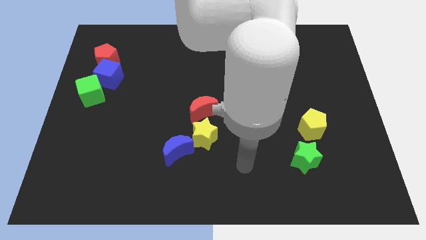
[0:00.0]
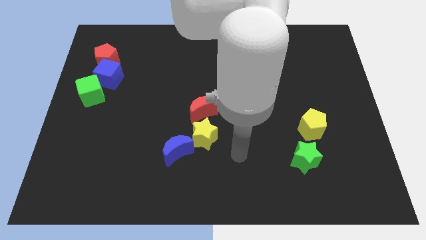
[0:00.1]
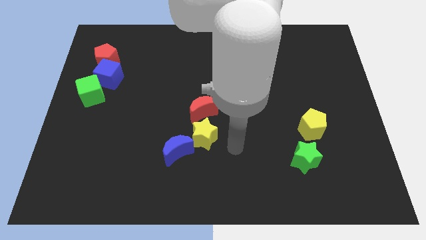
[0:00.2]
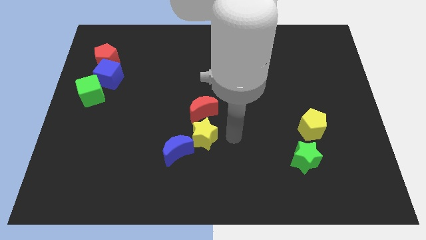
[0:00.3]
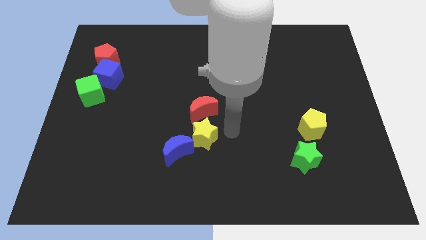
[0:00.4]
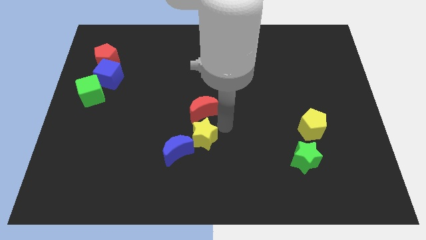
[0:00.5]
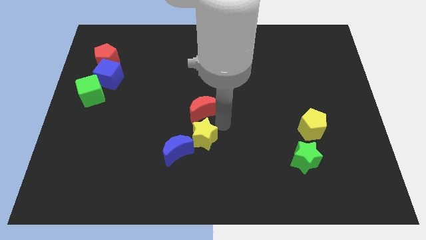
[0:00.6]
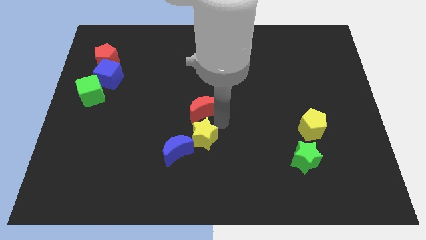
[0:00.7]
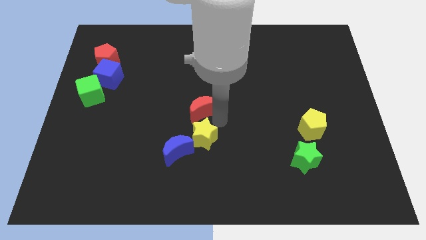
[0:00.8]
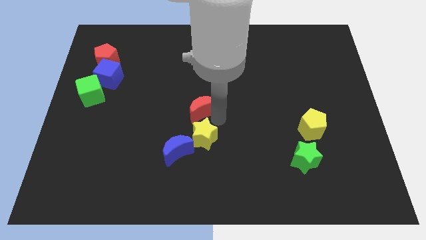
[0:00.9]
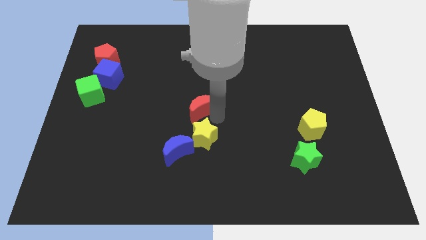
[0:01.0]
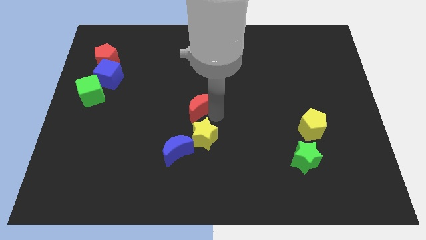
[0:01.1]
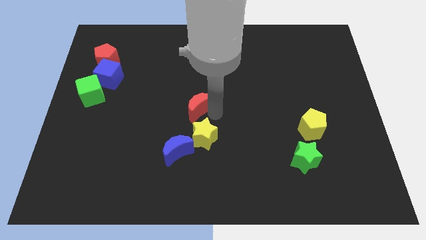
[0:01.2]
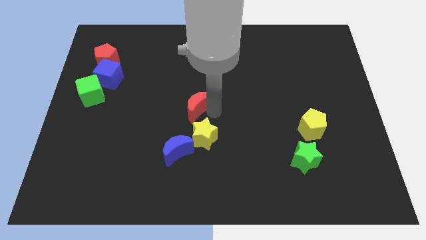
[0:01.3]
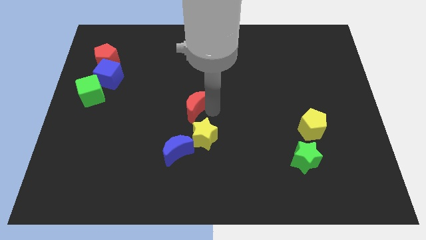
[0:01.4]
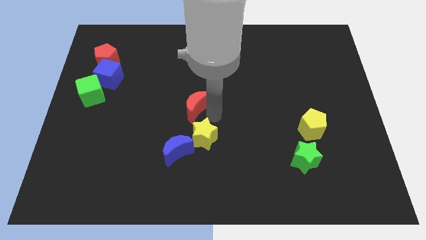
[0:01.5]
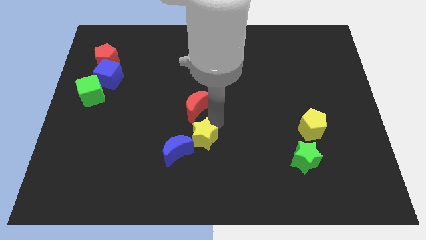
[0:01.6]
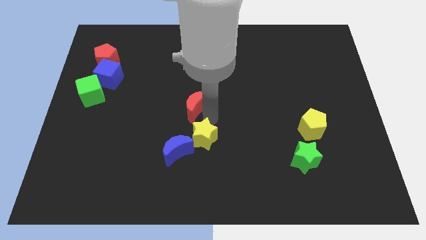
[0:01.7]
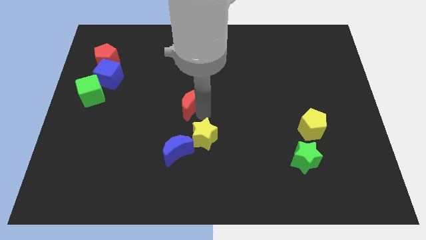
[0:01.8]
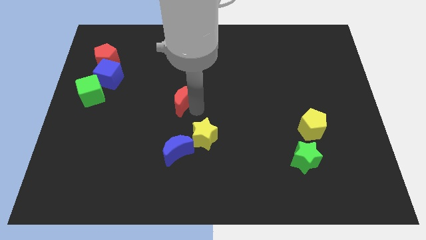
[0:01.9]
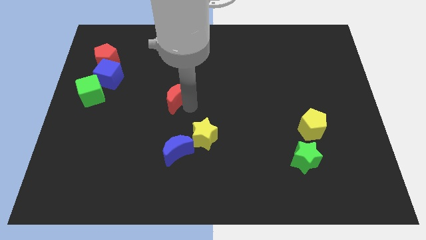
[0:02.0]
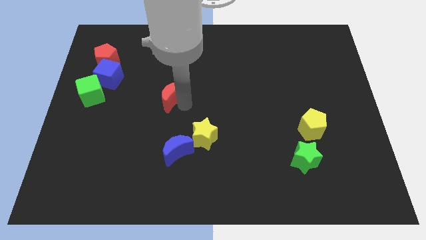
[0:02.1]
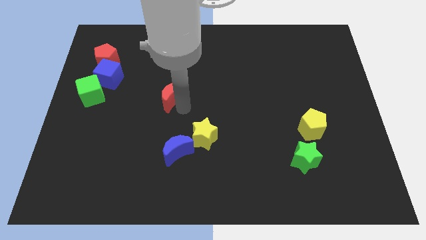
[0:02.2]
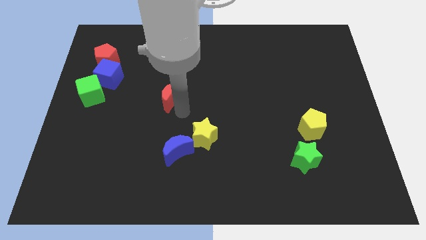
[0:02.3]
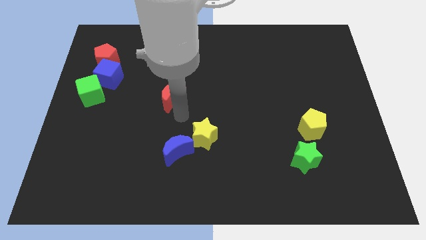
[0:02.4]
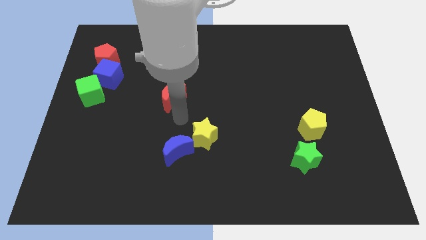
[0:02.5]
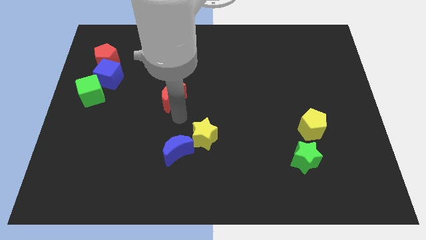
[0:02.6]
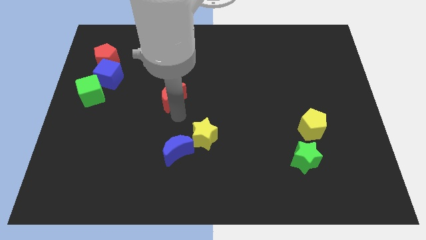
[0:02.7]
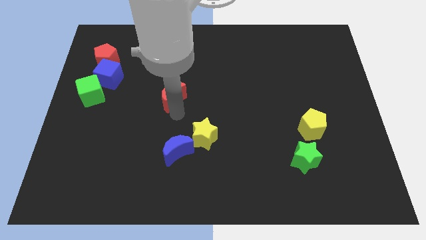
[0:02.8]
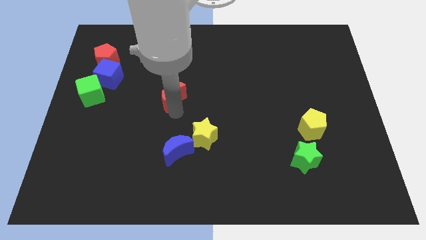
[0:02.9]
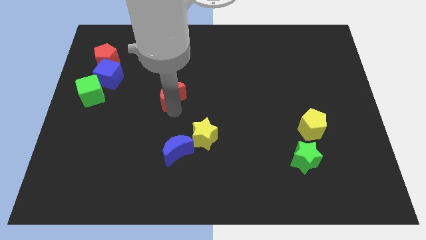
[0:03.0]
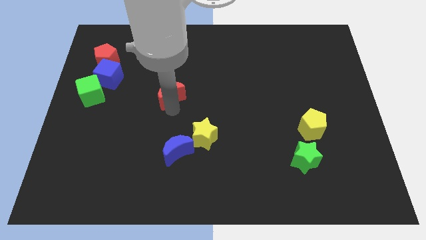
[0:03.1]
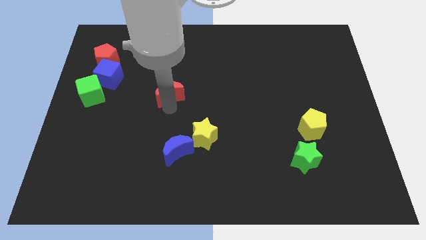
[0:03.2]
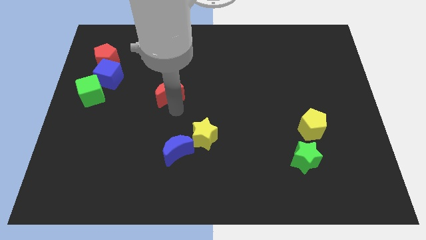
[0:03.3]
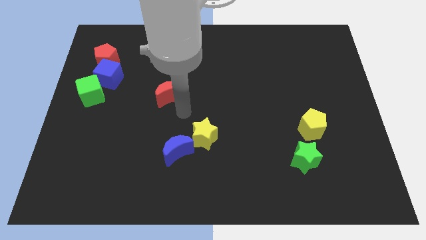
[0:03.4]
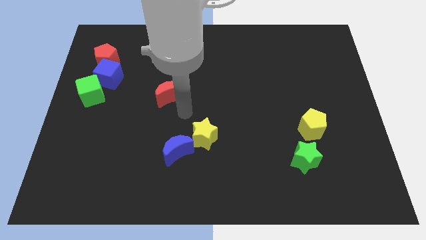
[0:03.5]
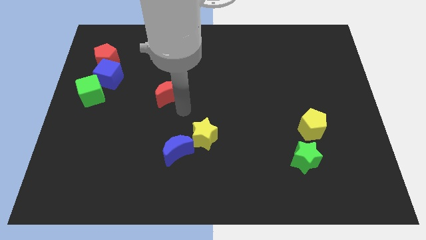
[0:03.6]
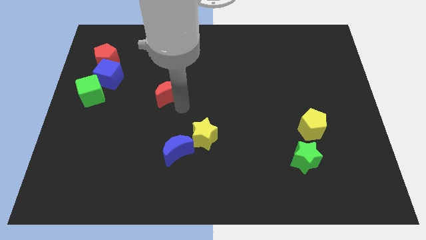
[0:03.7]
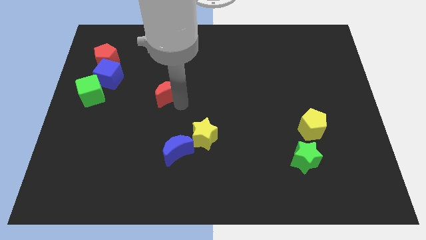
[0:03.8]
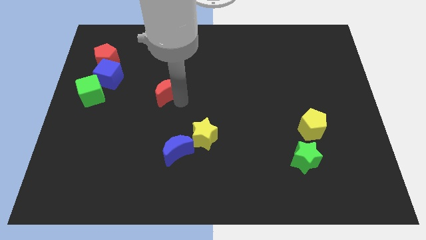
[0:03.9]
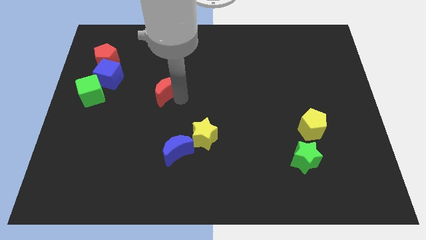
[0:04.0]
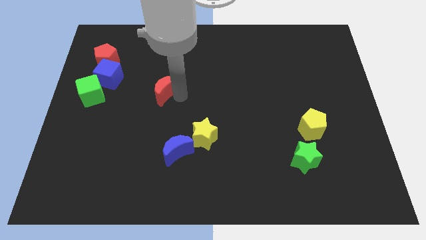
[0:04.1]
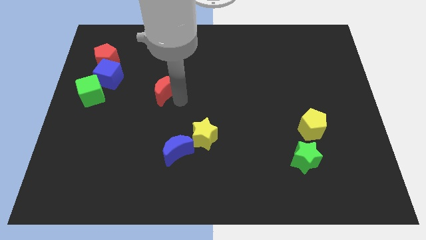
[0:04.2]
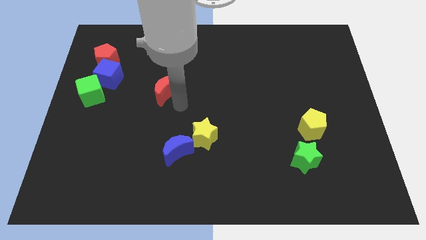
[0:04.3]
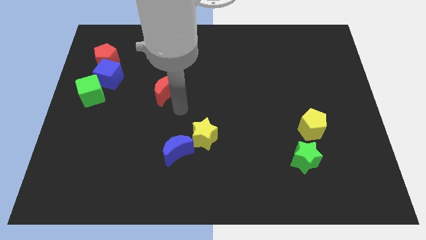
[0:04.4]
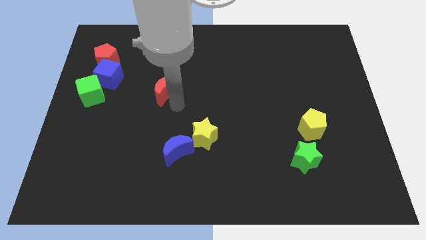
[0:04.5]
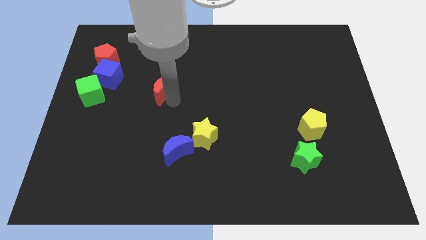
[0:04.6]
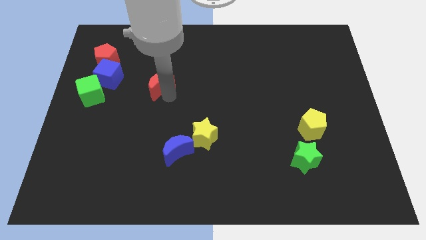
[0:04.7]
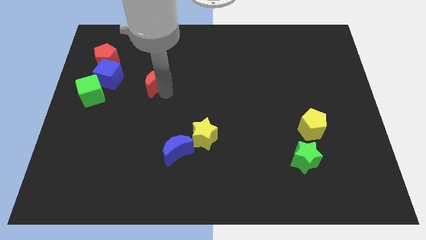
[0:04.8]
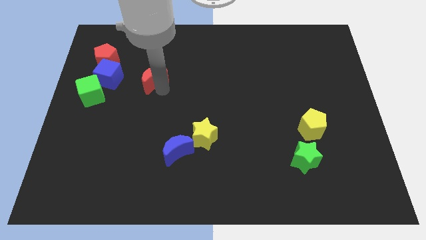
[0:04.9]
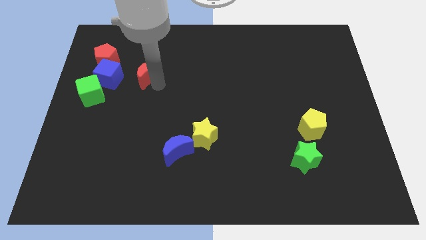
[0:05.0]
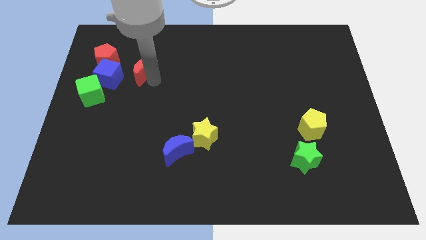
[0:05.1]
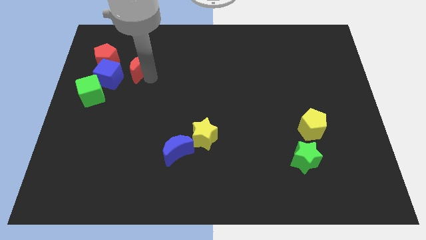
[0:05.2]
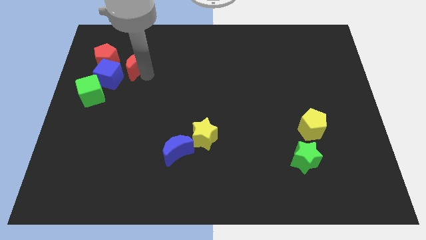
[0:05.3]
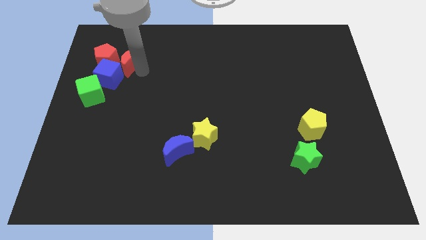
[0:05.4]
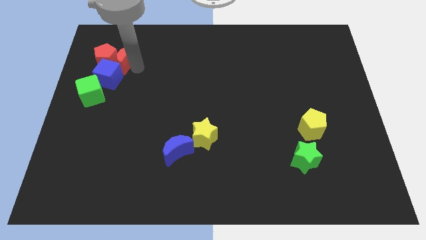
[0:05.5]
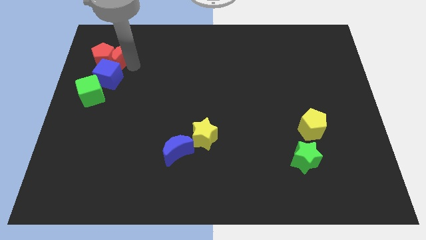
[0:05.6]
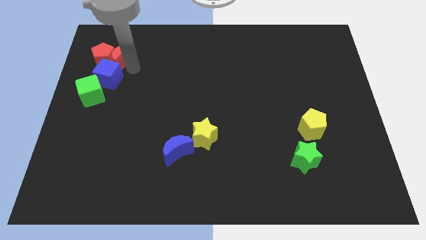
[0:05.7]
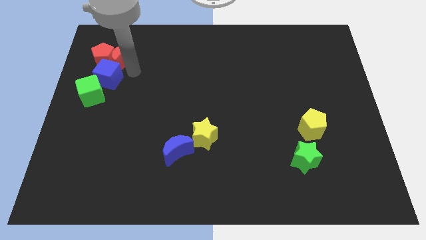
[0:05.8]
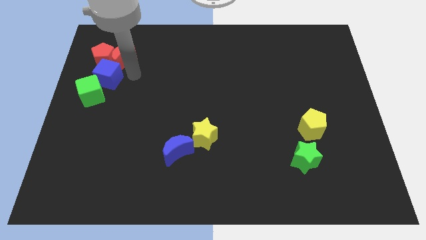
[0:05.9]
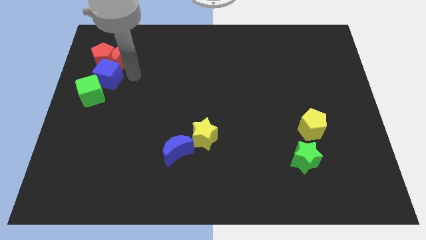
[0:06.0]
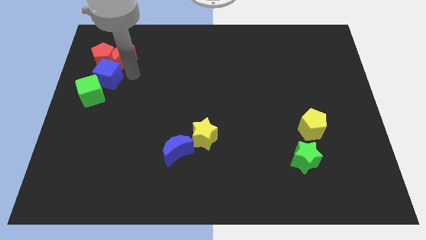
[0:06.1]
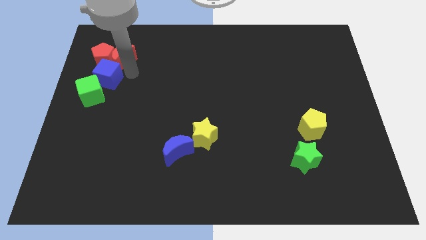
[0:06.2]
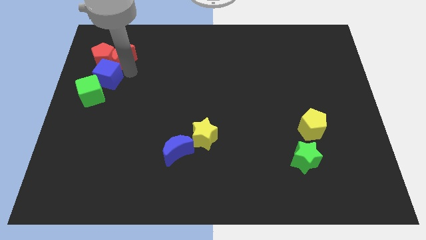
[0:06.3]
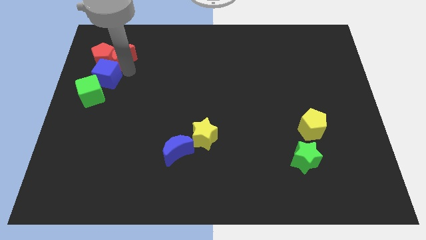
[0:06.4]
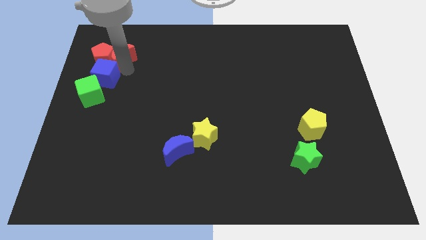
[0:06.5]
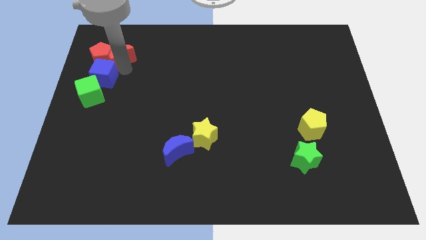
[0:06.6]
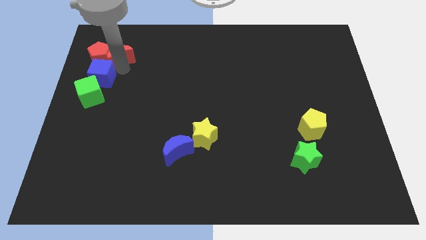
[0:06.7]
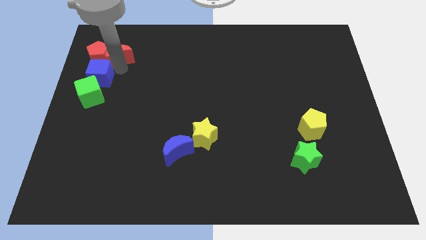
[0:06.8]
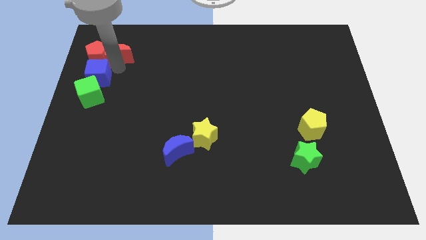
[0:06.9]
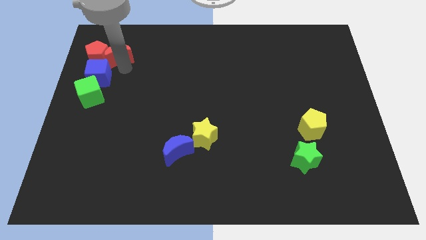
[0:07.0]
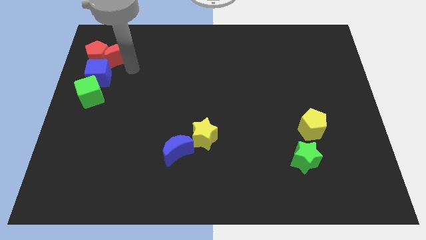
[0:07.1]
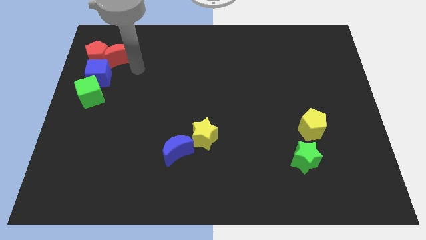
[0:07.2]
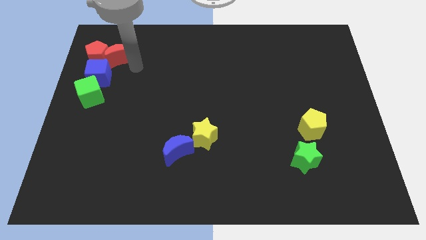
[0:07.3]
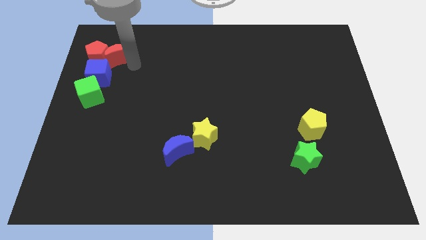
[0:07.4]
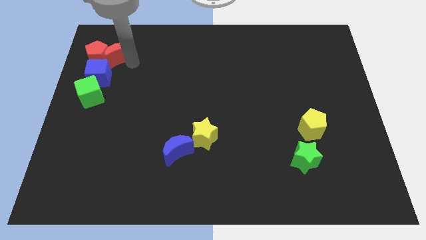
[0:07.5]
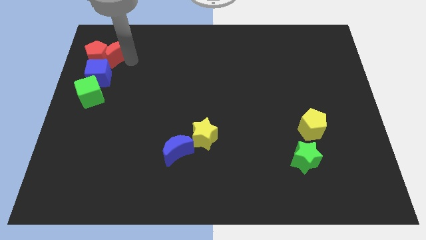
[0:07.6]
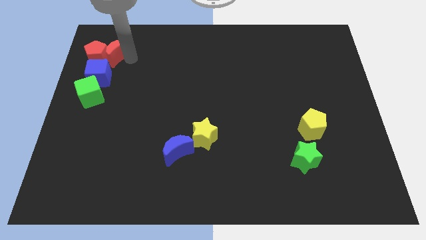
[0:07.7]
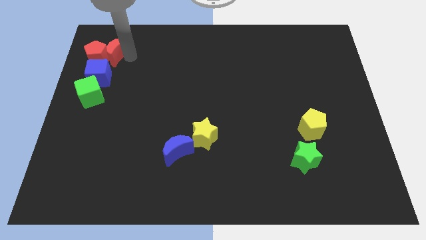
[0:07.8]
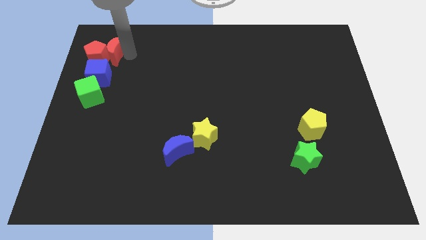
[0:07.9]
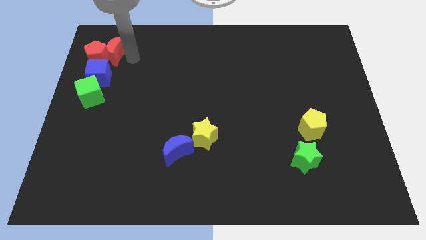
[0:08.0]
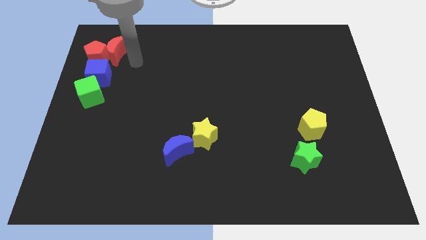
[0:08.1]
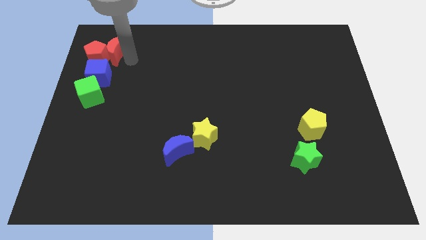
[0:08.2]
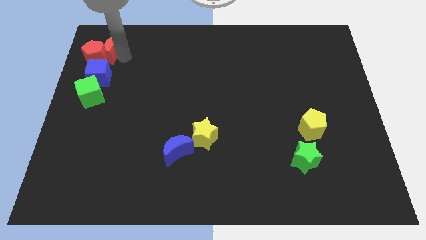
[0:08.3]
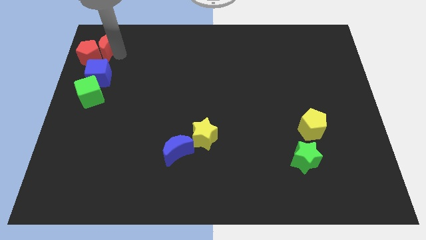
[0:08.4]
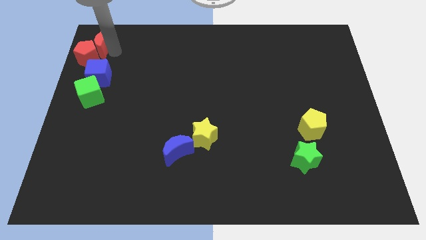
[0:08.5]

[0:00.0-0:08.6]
move the red moon to the top left corner
